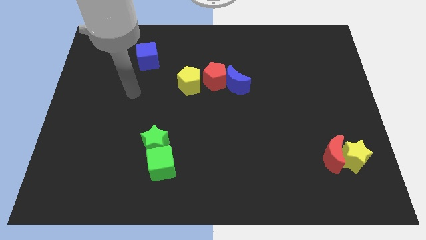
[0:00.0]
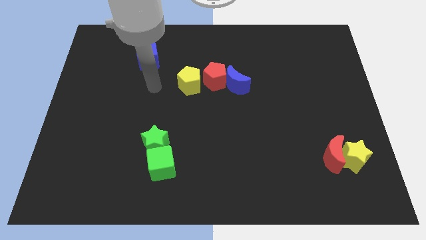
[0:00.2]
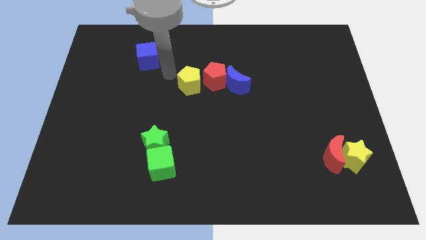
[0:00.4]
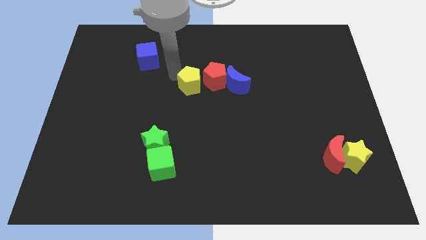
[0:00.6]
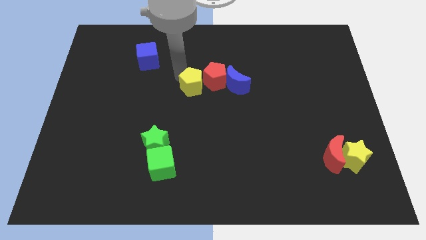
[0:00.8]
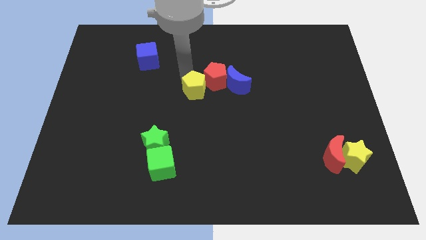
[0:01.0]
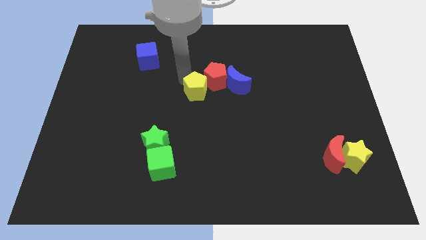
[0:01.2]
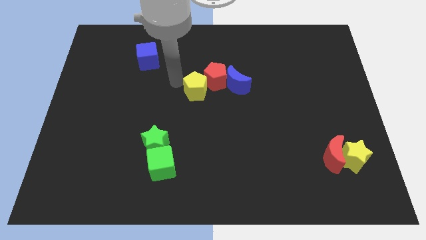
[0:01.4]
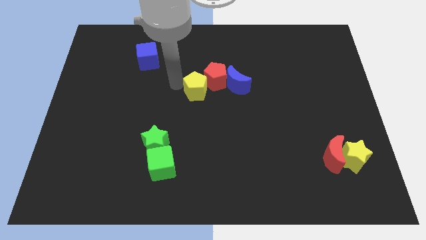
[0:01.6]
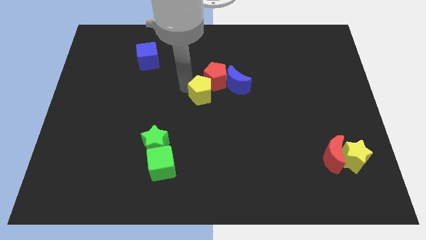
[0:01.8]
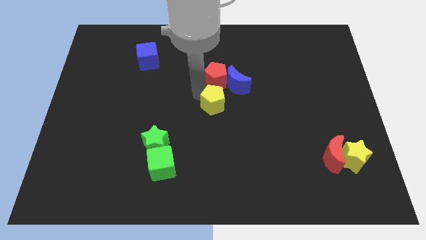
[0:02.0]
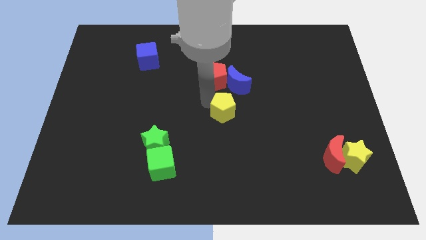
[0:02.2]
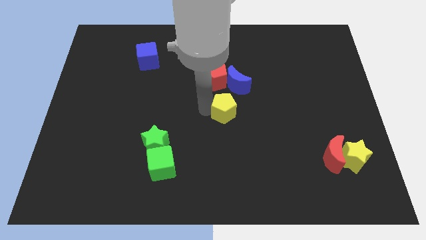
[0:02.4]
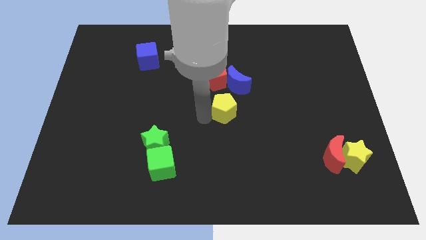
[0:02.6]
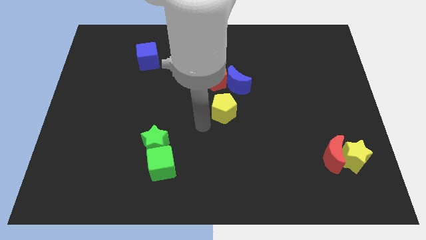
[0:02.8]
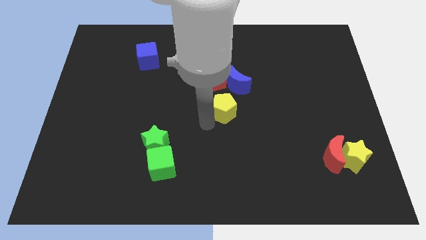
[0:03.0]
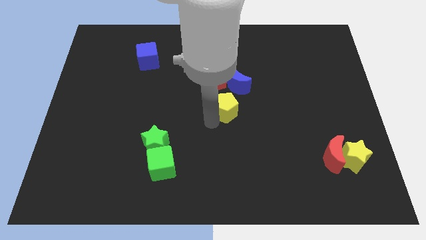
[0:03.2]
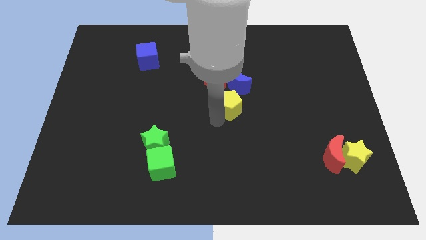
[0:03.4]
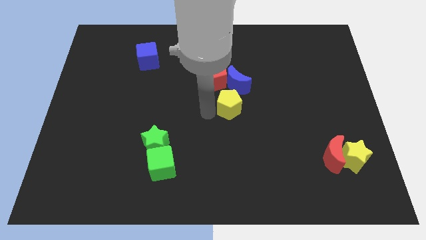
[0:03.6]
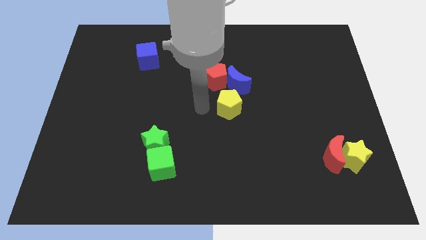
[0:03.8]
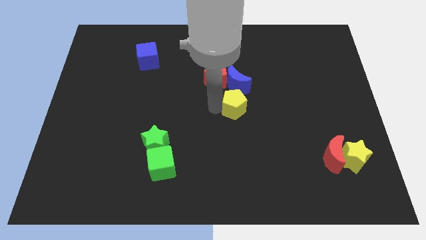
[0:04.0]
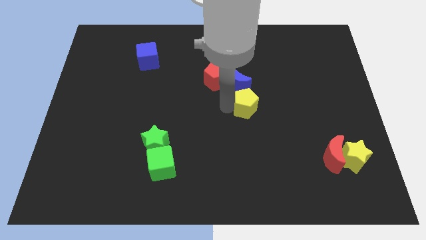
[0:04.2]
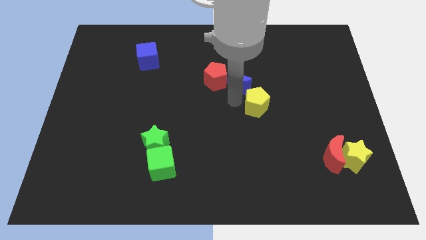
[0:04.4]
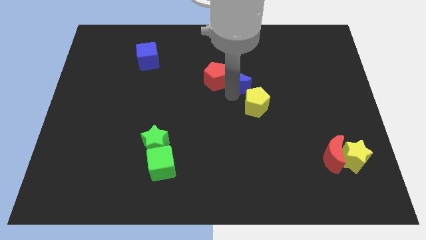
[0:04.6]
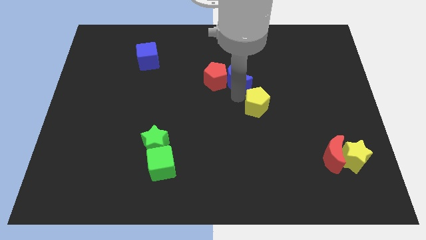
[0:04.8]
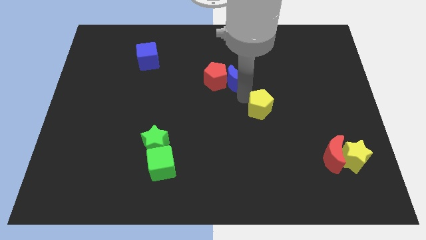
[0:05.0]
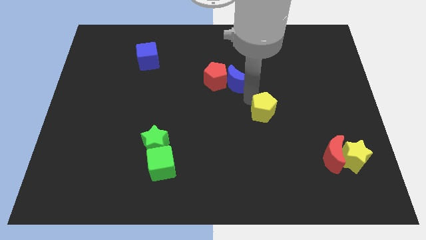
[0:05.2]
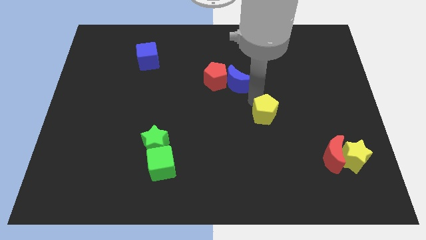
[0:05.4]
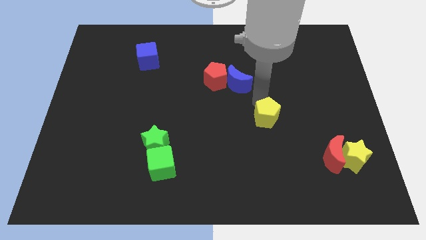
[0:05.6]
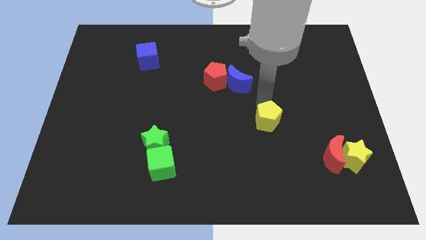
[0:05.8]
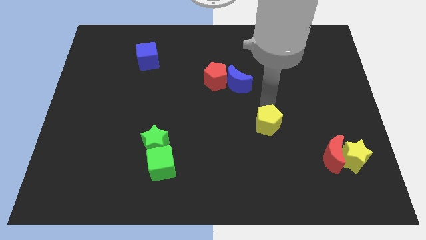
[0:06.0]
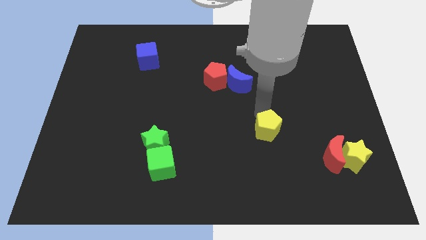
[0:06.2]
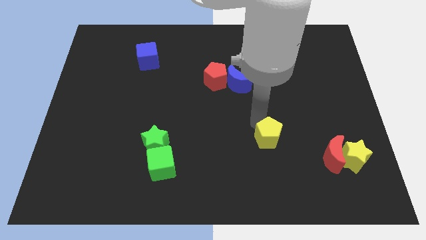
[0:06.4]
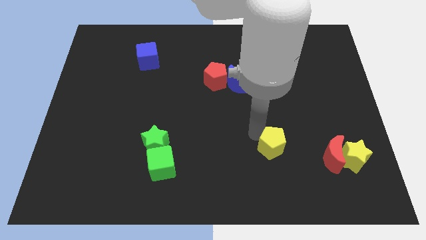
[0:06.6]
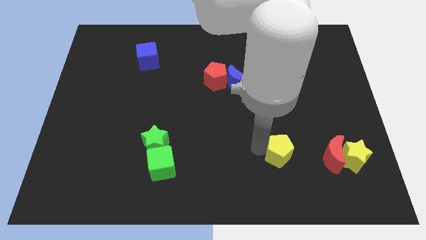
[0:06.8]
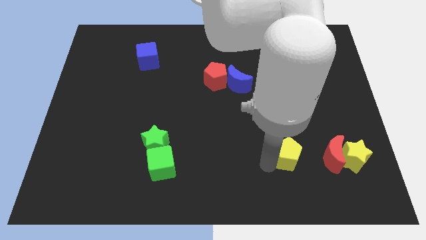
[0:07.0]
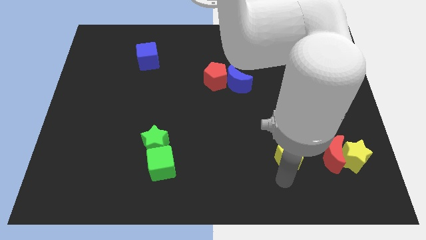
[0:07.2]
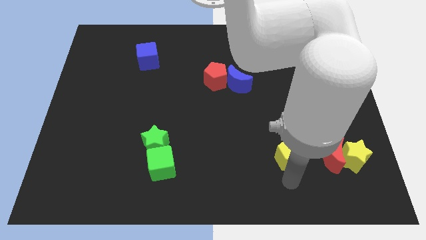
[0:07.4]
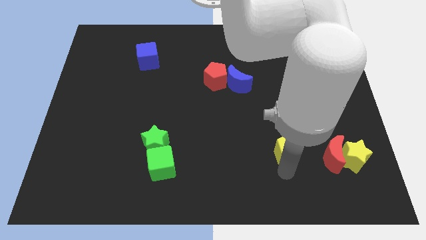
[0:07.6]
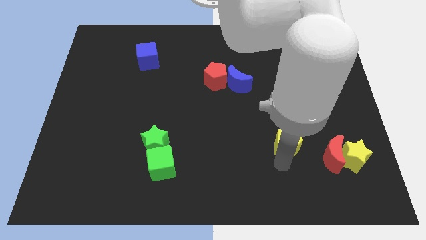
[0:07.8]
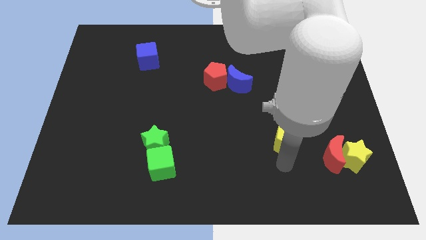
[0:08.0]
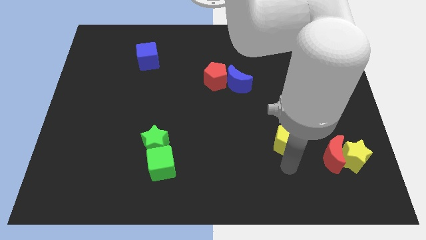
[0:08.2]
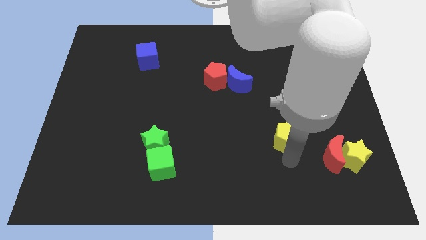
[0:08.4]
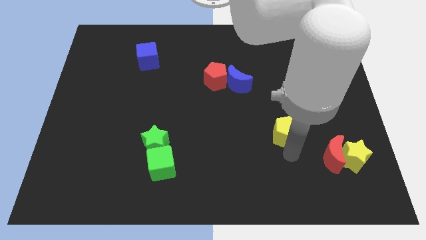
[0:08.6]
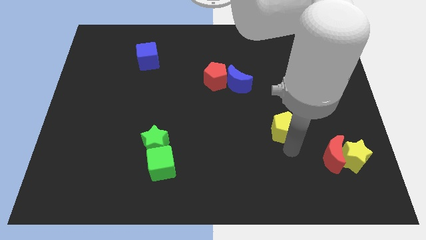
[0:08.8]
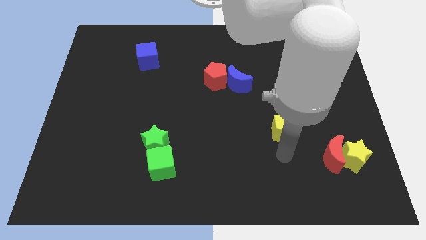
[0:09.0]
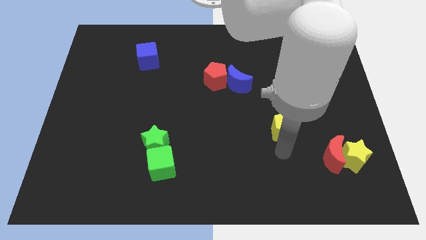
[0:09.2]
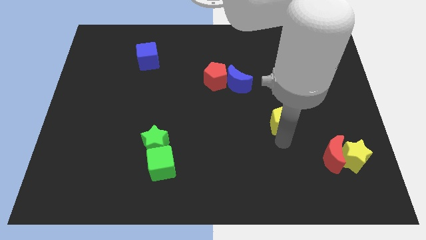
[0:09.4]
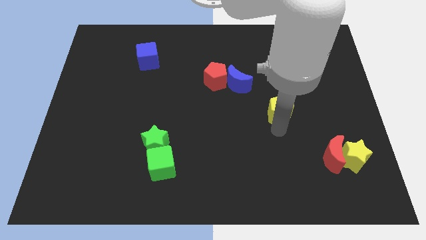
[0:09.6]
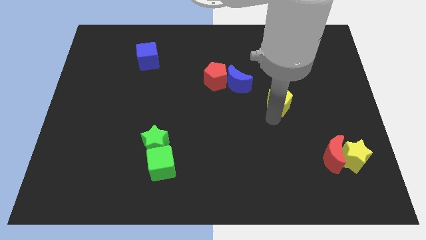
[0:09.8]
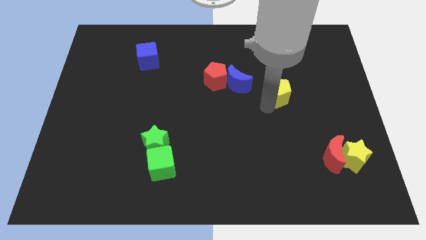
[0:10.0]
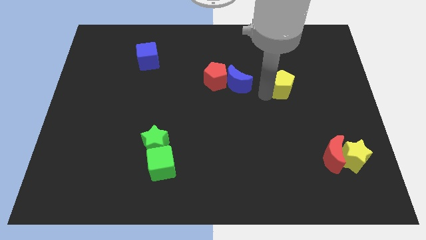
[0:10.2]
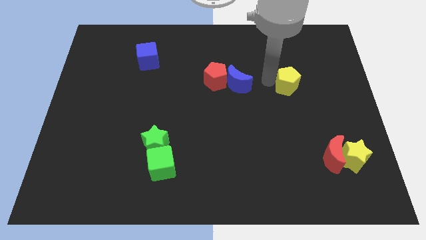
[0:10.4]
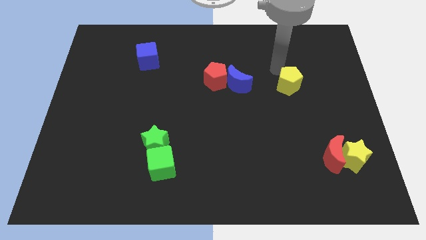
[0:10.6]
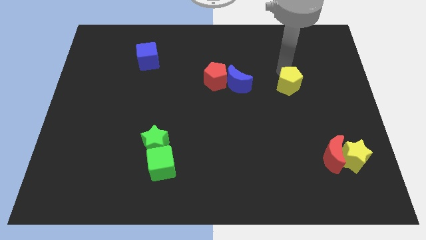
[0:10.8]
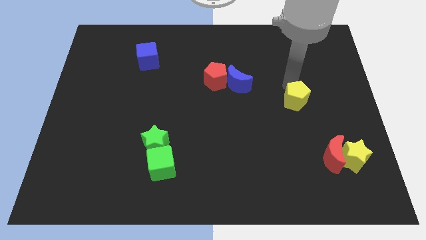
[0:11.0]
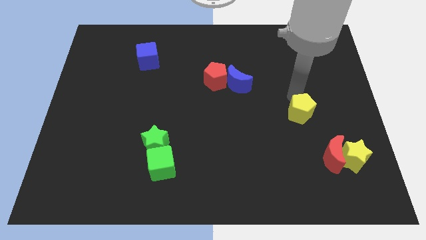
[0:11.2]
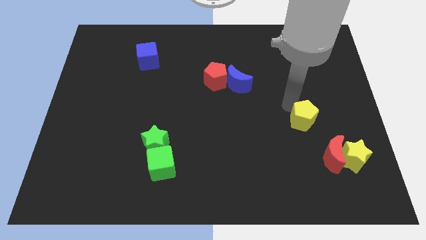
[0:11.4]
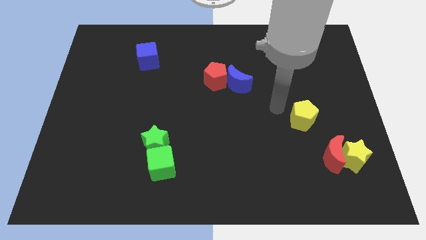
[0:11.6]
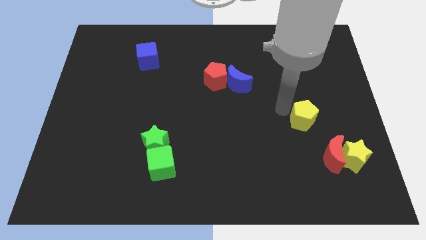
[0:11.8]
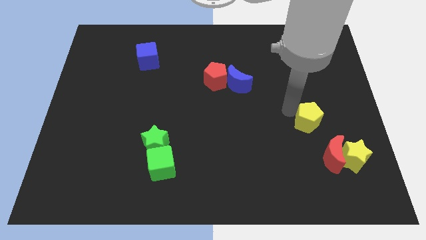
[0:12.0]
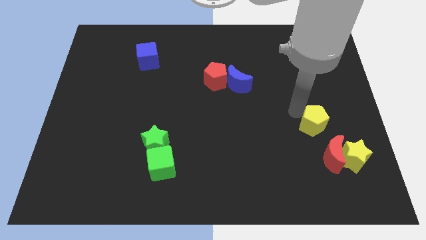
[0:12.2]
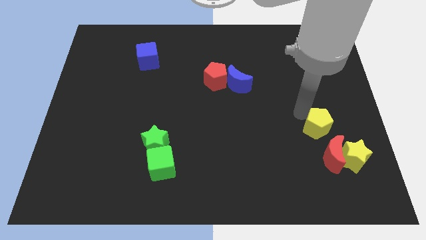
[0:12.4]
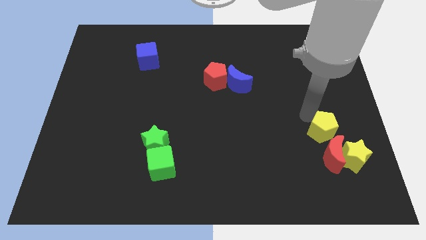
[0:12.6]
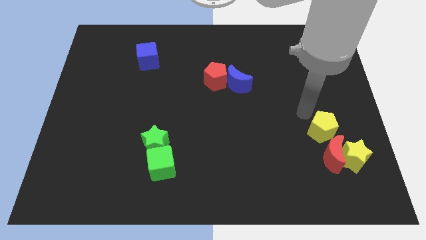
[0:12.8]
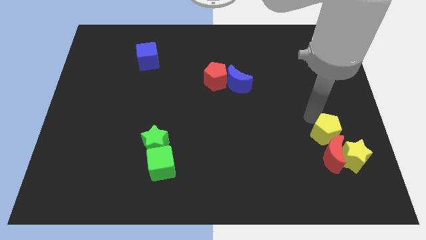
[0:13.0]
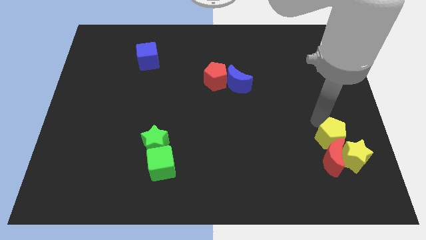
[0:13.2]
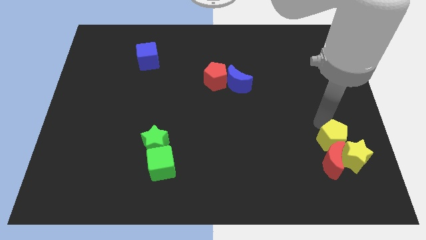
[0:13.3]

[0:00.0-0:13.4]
move the yellow pentagon towards the yellow star

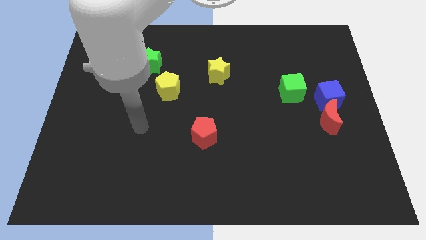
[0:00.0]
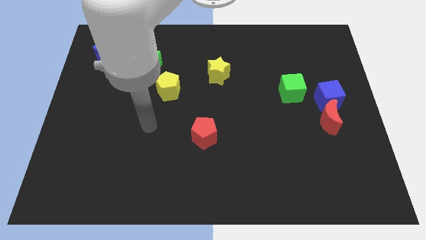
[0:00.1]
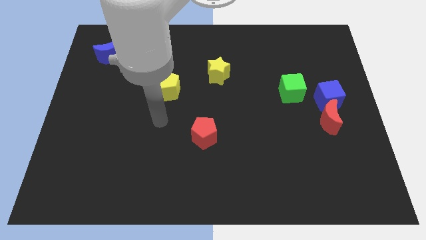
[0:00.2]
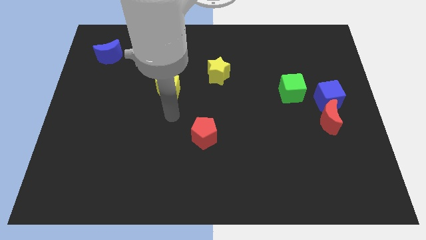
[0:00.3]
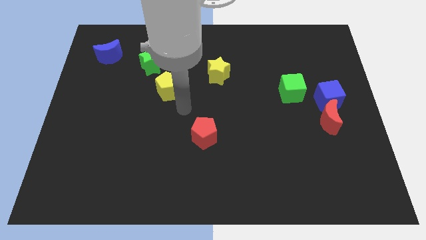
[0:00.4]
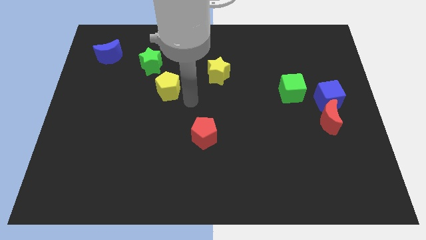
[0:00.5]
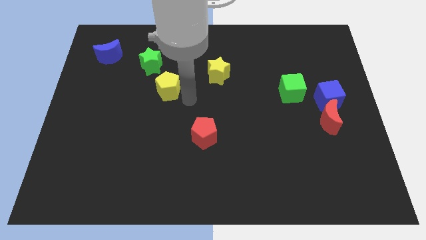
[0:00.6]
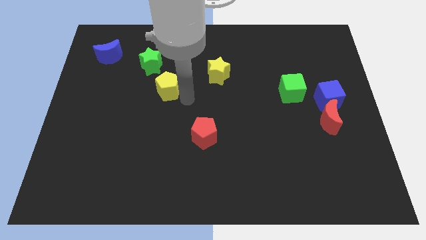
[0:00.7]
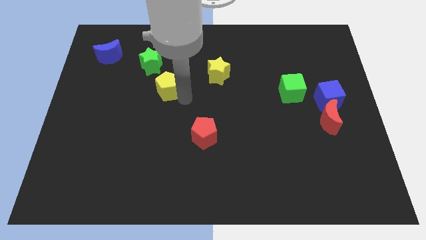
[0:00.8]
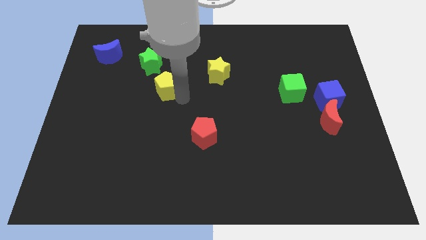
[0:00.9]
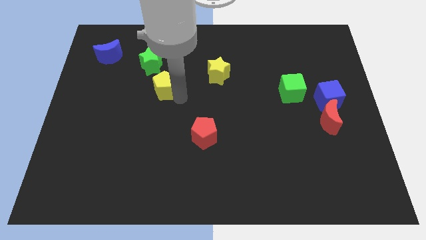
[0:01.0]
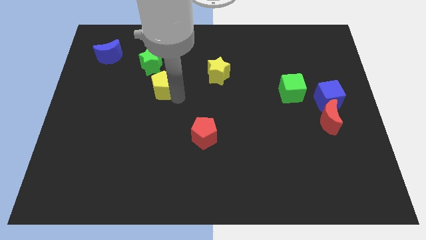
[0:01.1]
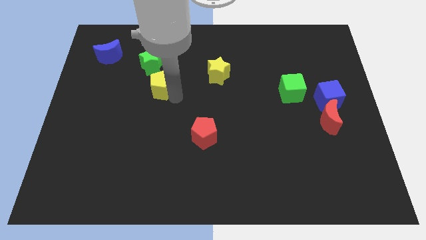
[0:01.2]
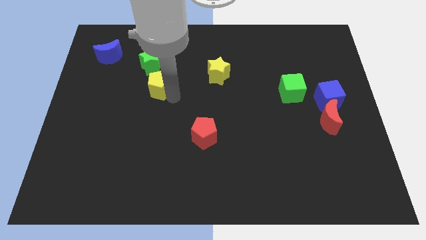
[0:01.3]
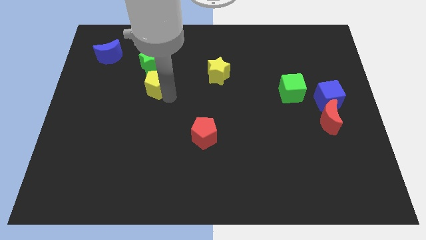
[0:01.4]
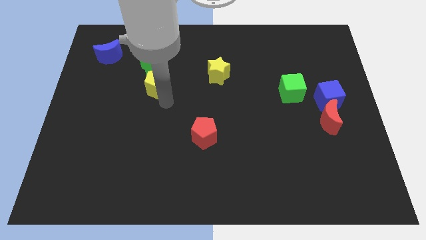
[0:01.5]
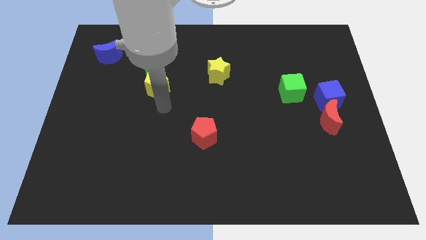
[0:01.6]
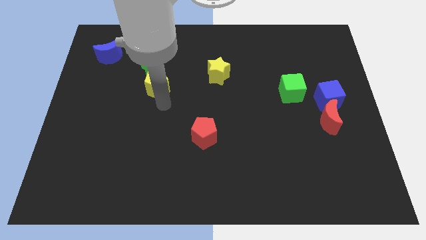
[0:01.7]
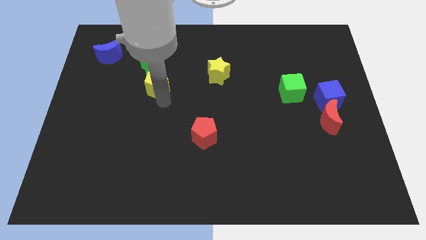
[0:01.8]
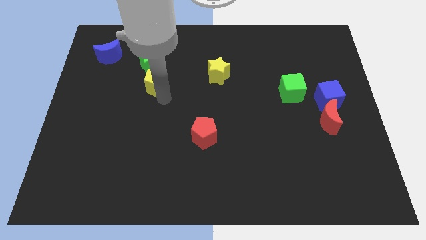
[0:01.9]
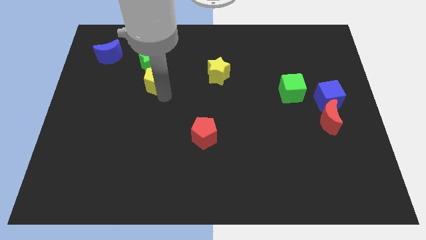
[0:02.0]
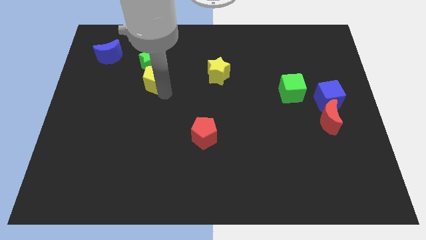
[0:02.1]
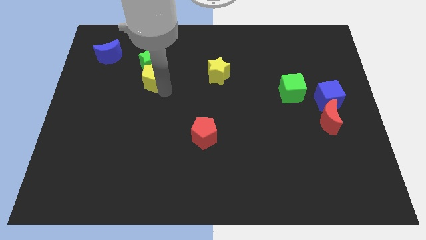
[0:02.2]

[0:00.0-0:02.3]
push the yellow pentagon next to the green star
